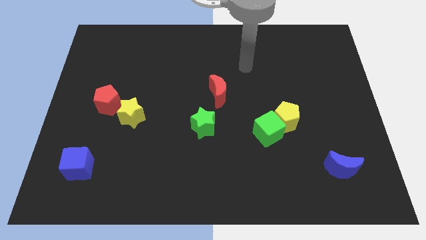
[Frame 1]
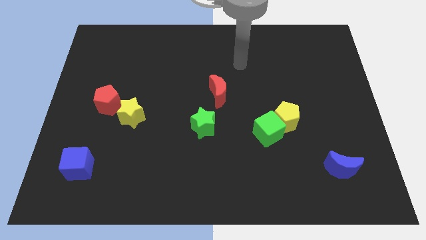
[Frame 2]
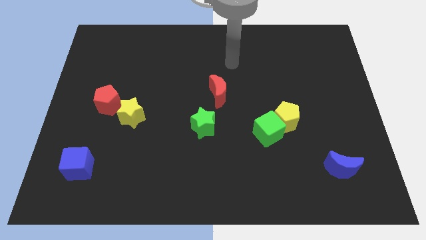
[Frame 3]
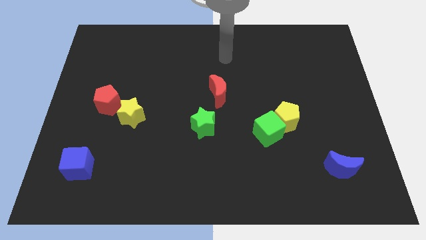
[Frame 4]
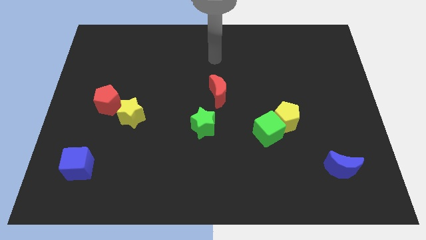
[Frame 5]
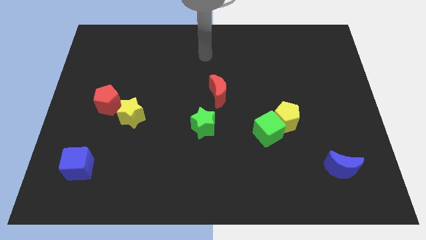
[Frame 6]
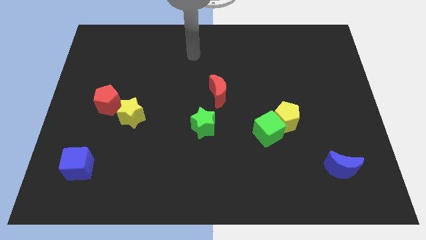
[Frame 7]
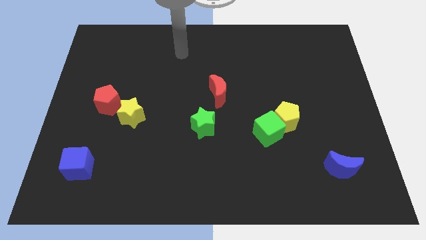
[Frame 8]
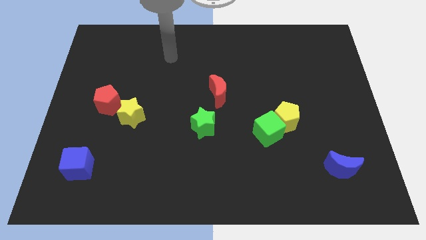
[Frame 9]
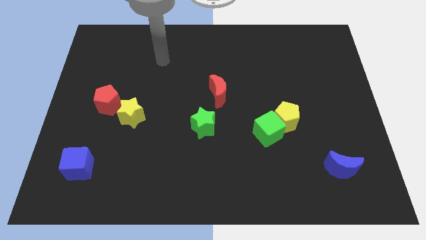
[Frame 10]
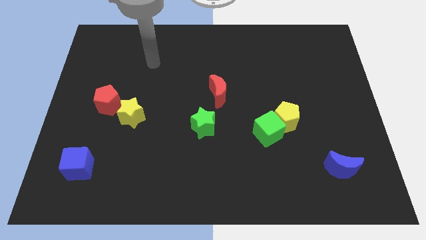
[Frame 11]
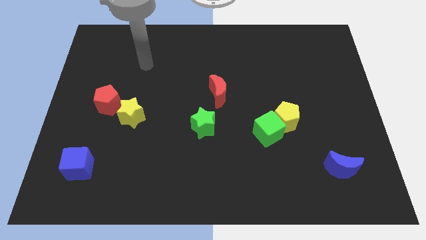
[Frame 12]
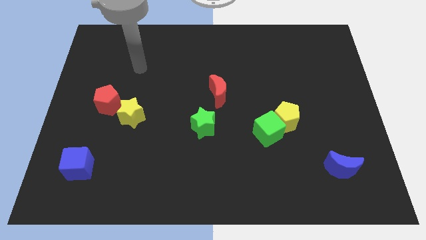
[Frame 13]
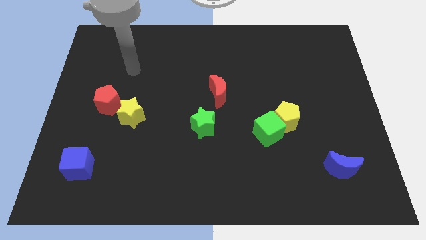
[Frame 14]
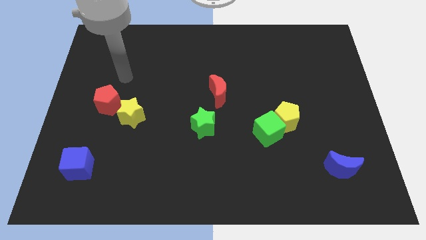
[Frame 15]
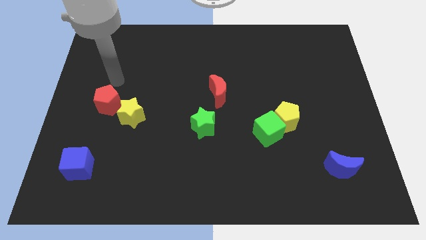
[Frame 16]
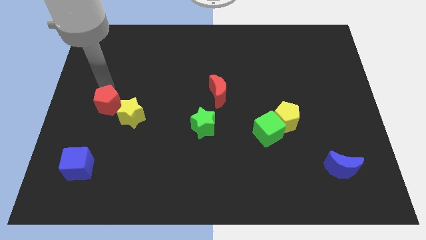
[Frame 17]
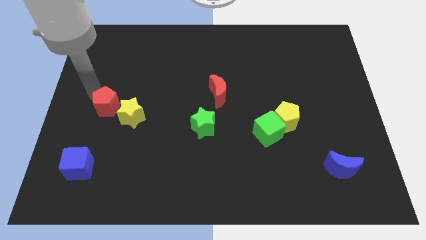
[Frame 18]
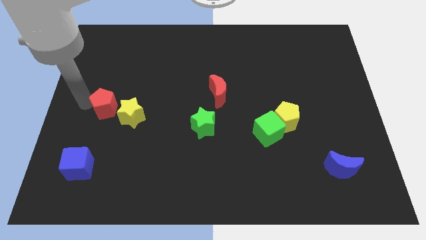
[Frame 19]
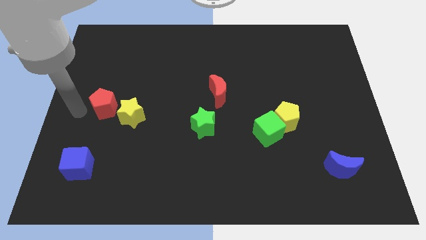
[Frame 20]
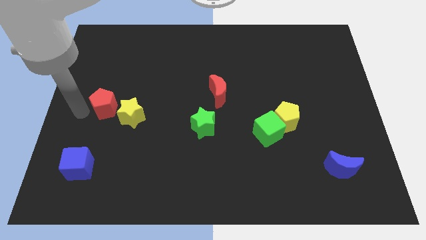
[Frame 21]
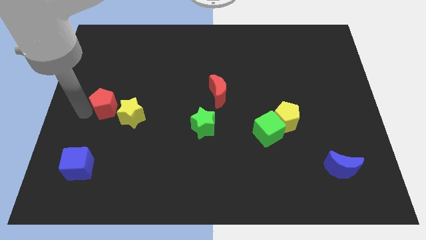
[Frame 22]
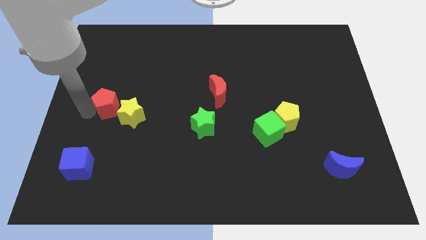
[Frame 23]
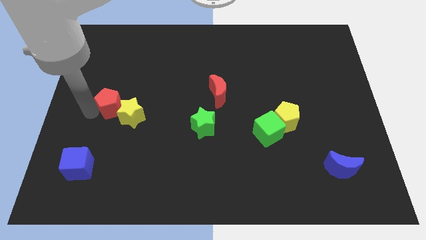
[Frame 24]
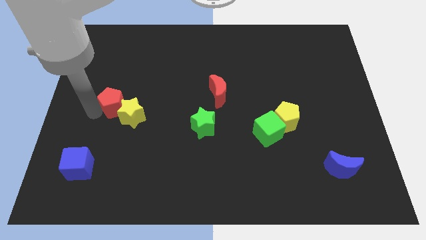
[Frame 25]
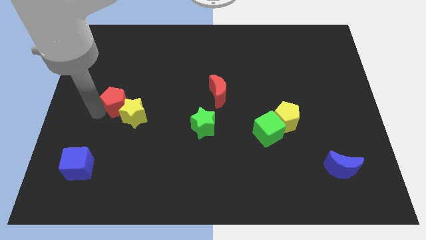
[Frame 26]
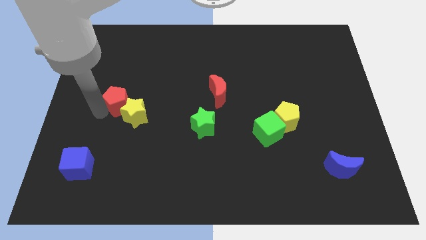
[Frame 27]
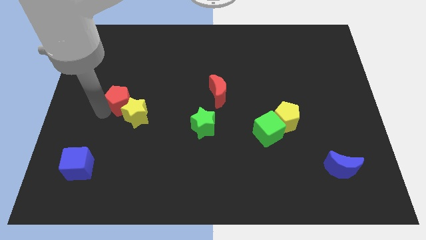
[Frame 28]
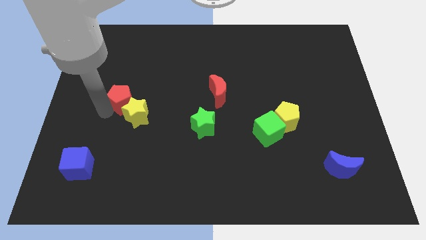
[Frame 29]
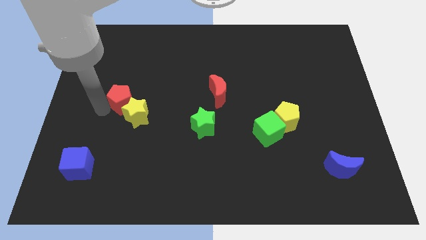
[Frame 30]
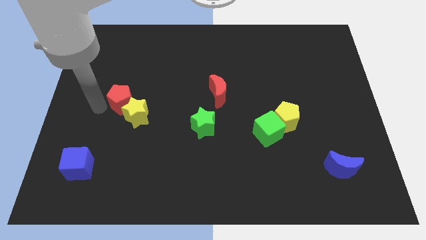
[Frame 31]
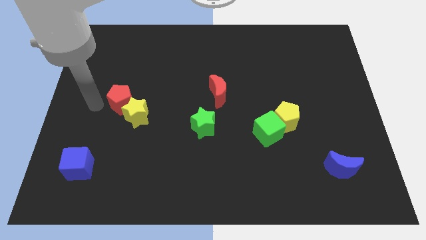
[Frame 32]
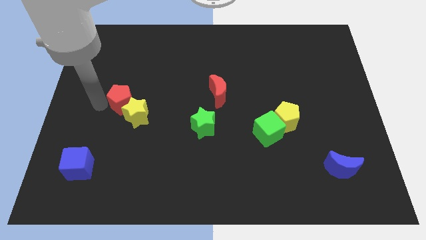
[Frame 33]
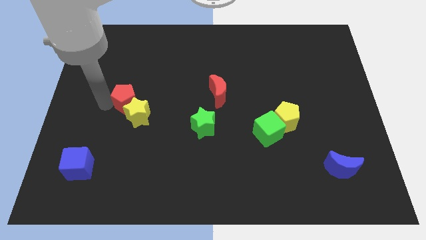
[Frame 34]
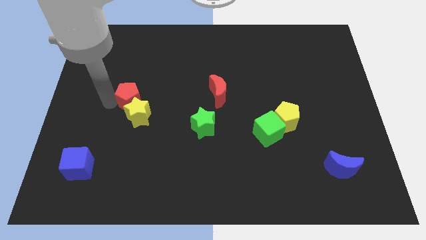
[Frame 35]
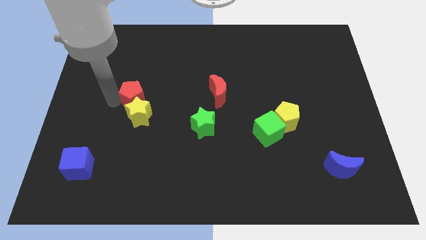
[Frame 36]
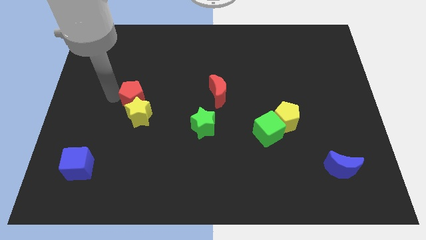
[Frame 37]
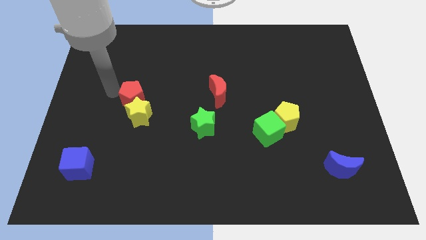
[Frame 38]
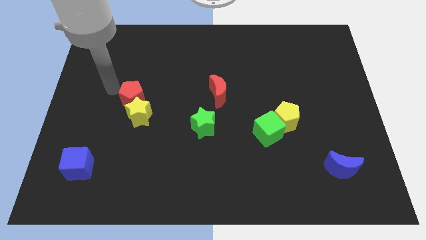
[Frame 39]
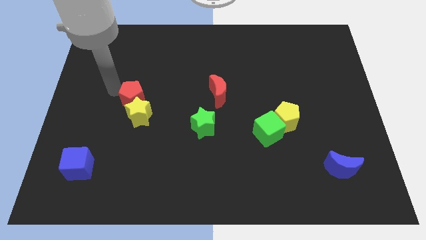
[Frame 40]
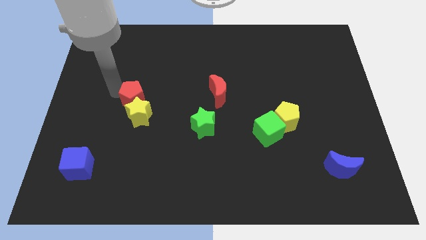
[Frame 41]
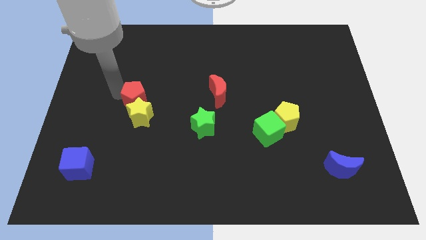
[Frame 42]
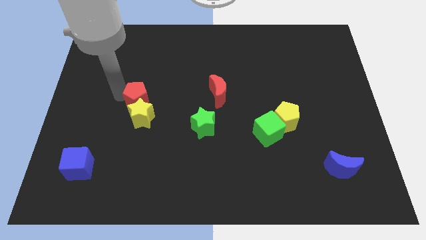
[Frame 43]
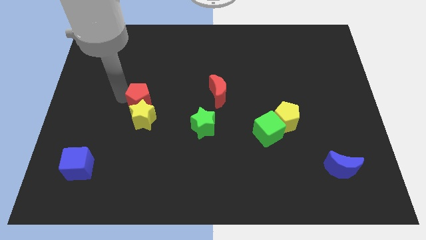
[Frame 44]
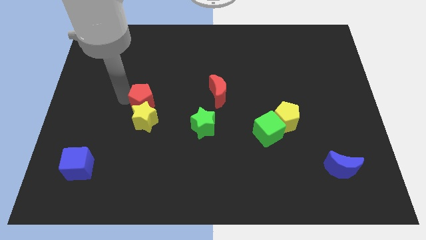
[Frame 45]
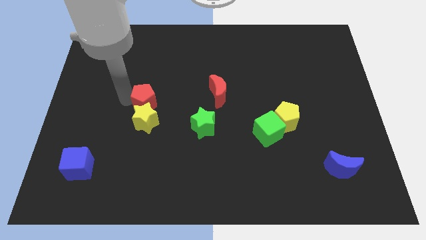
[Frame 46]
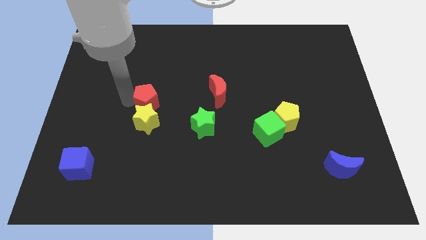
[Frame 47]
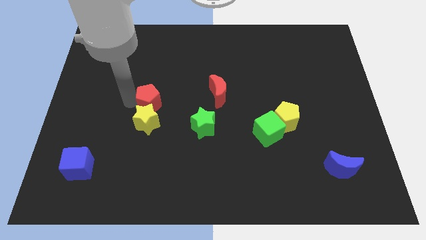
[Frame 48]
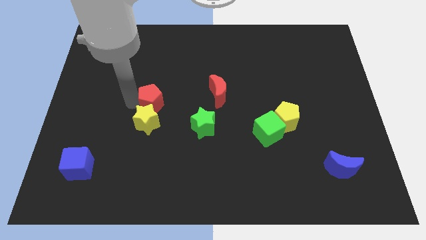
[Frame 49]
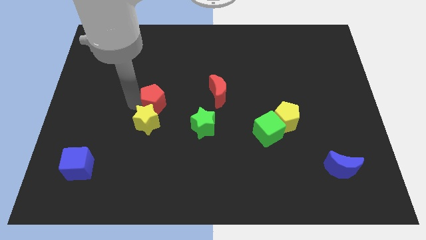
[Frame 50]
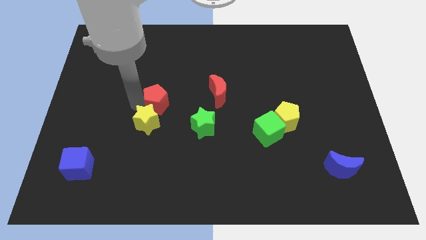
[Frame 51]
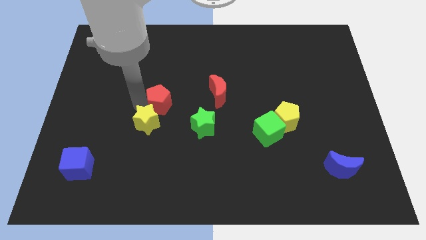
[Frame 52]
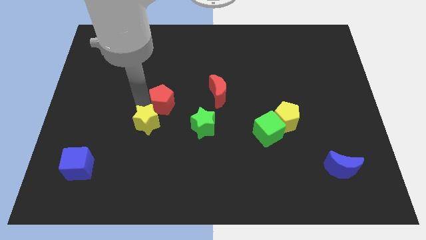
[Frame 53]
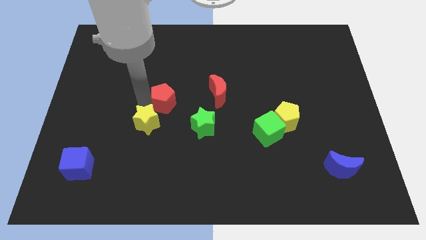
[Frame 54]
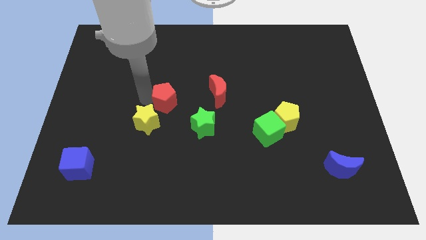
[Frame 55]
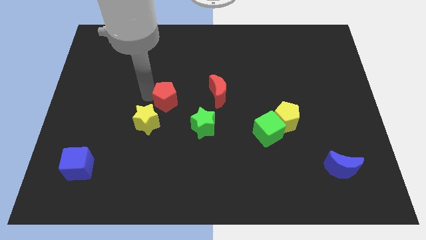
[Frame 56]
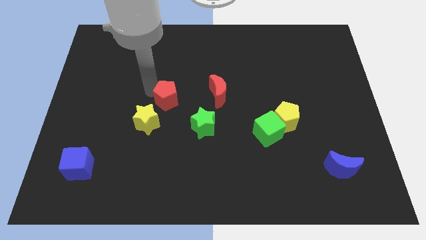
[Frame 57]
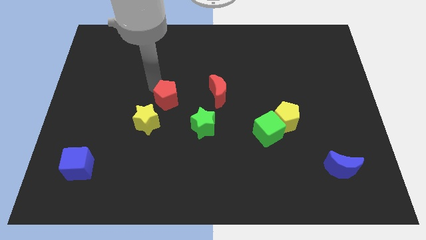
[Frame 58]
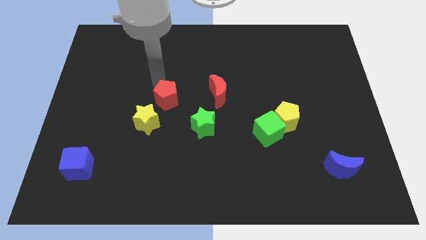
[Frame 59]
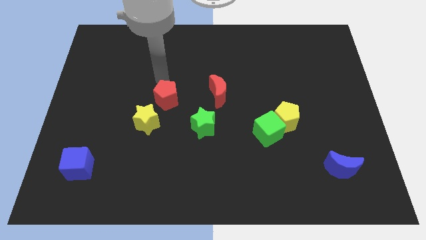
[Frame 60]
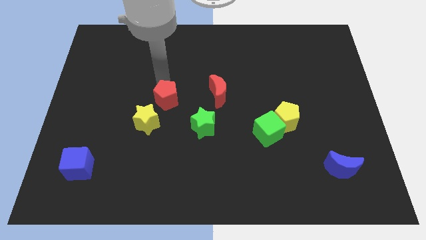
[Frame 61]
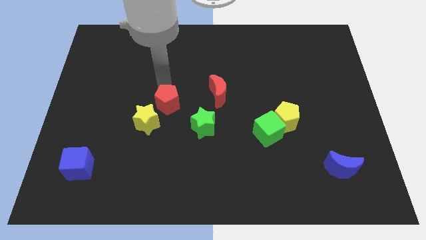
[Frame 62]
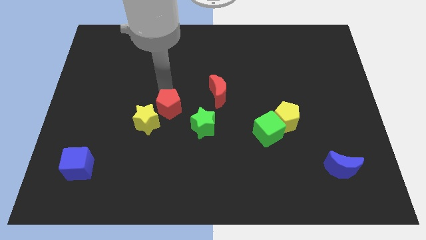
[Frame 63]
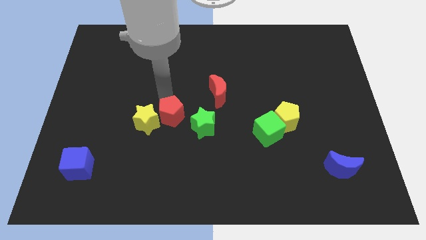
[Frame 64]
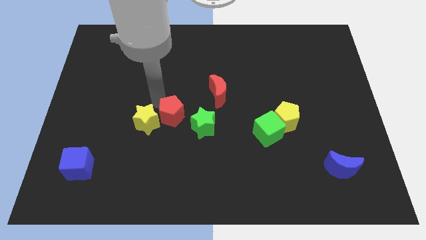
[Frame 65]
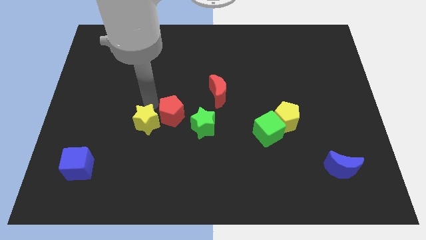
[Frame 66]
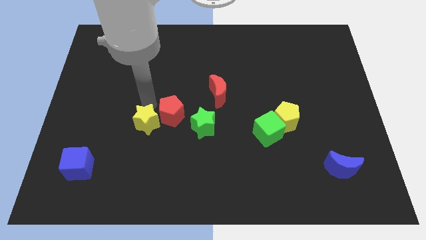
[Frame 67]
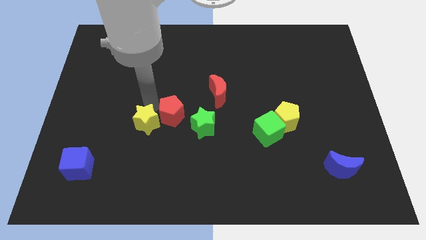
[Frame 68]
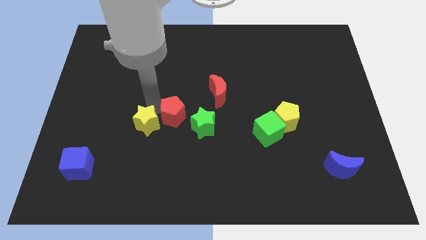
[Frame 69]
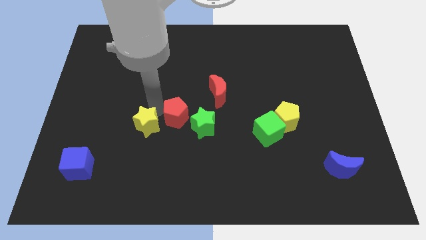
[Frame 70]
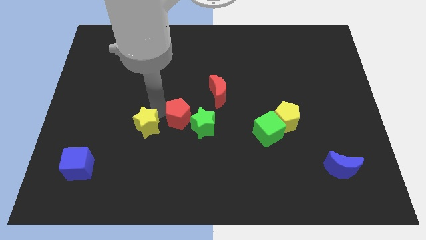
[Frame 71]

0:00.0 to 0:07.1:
put the red pentagon to the green star
